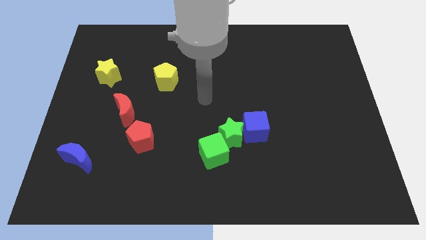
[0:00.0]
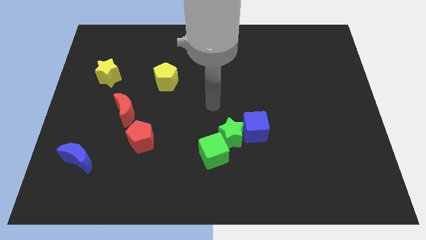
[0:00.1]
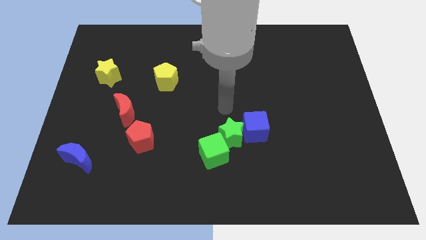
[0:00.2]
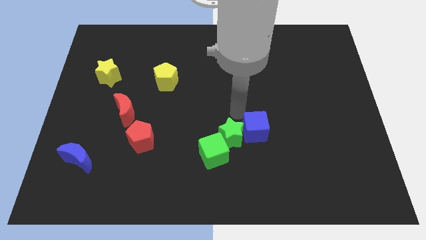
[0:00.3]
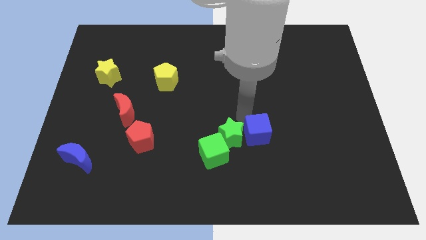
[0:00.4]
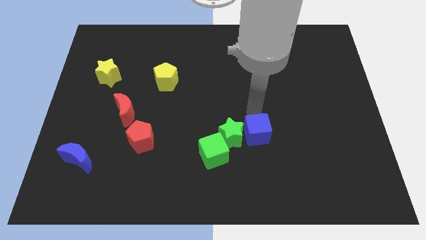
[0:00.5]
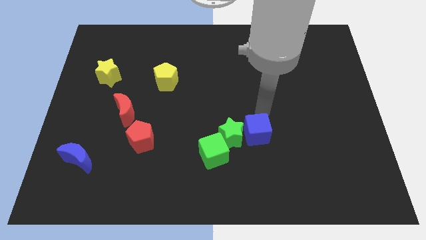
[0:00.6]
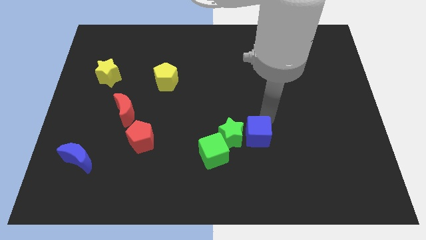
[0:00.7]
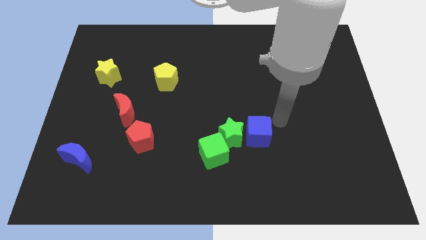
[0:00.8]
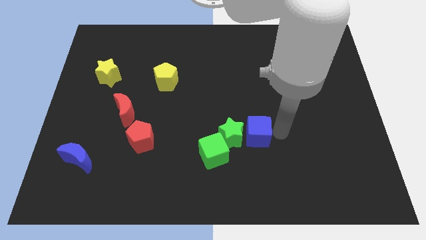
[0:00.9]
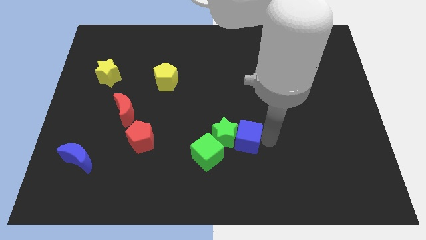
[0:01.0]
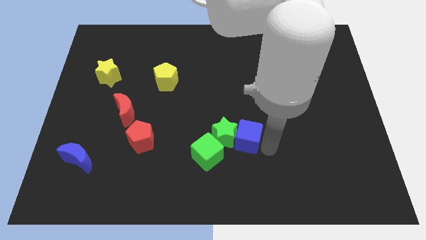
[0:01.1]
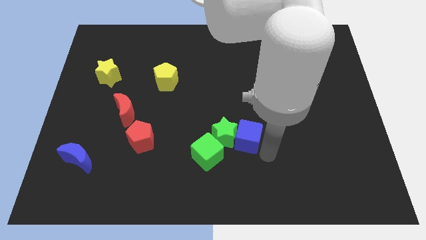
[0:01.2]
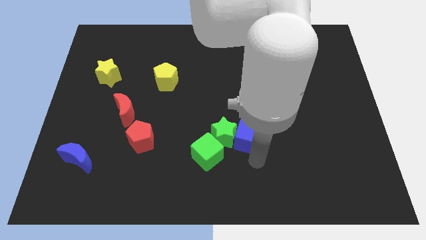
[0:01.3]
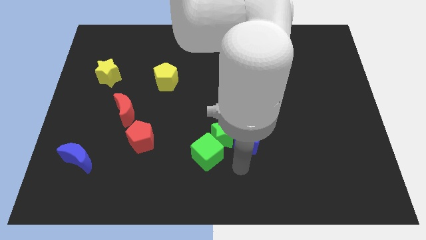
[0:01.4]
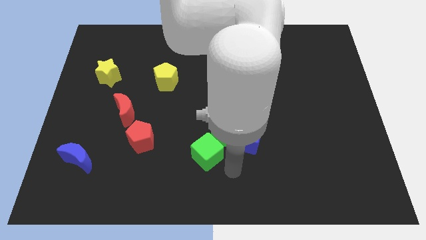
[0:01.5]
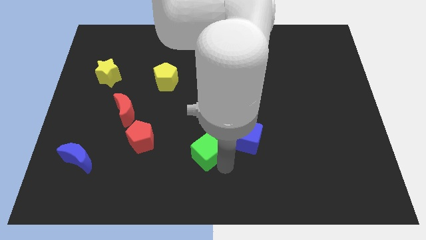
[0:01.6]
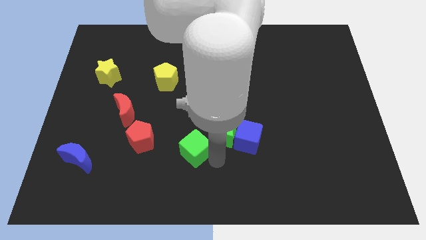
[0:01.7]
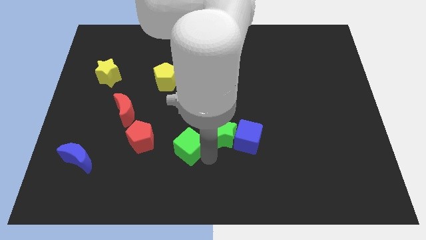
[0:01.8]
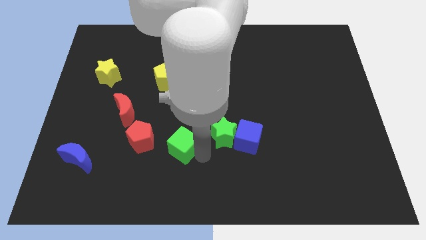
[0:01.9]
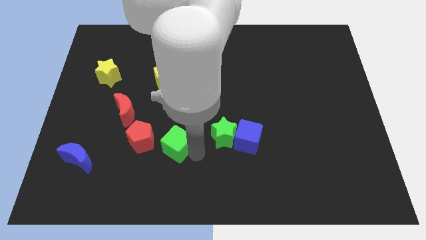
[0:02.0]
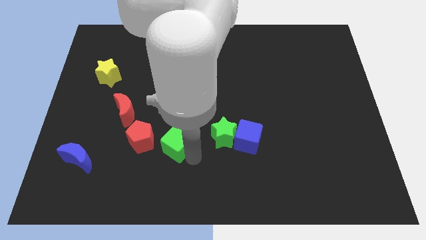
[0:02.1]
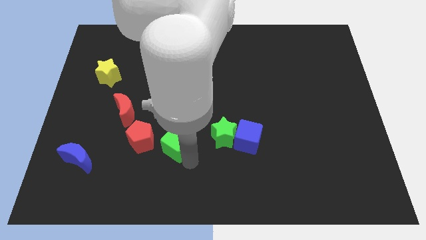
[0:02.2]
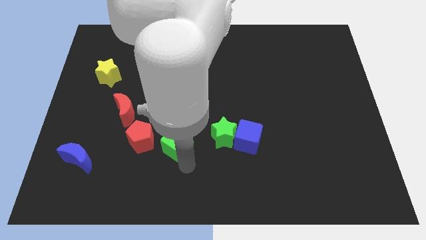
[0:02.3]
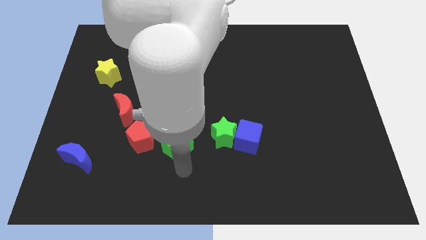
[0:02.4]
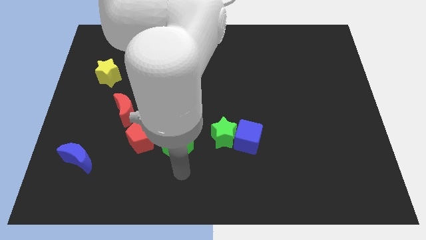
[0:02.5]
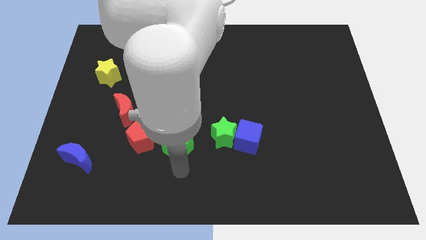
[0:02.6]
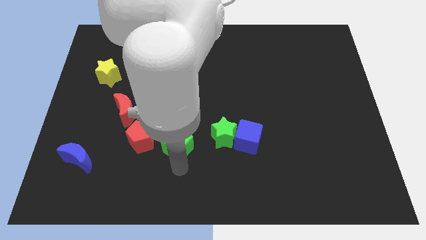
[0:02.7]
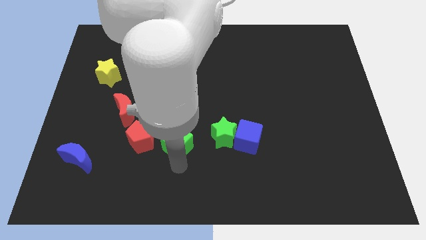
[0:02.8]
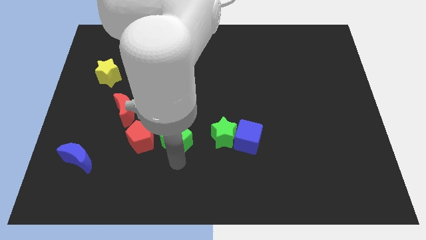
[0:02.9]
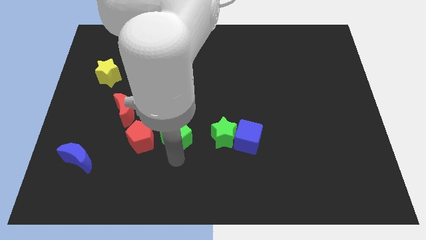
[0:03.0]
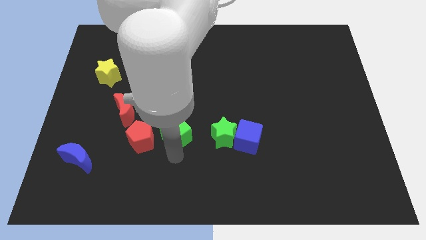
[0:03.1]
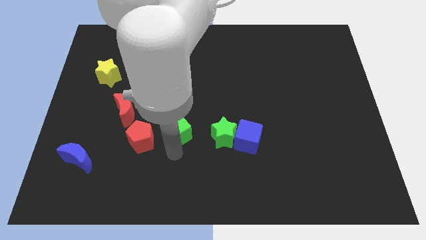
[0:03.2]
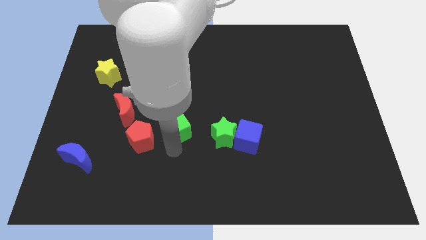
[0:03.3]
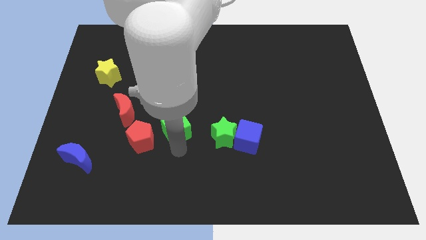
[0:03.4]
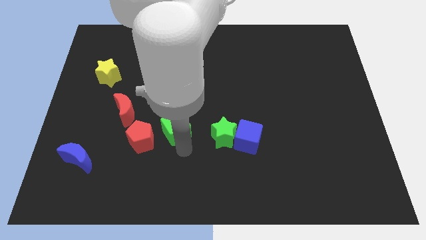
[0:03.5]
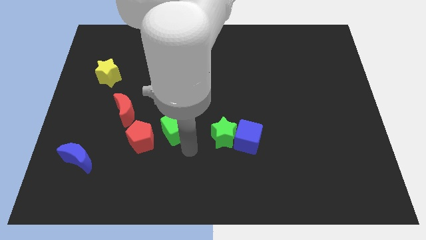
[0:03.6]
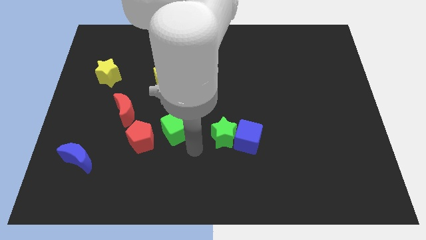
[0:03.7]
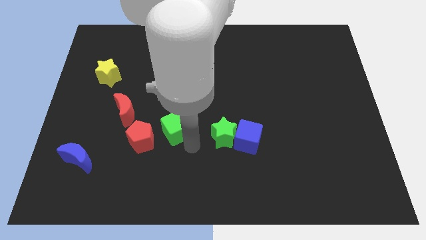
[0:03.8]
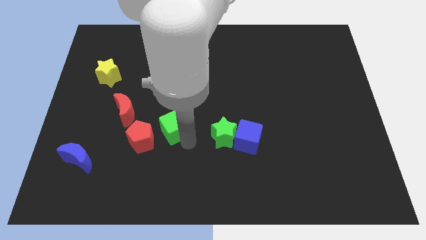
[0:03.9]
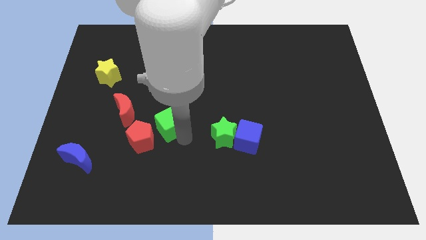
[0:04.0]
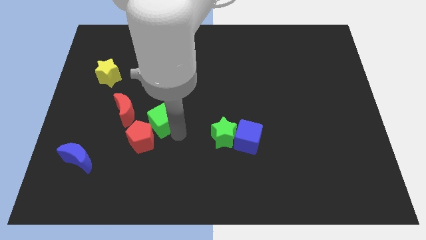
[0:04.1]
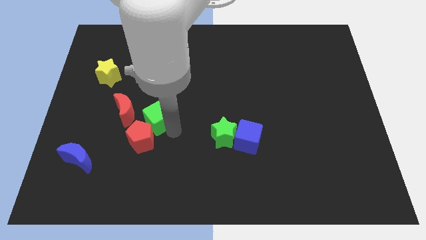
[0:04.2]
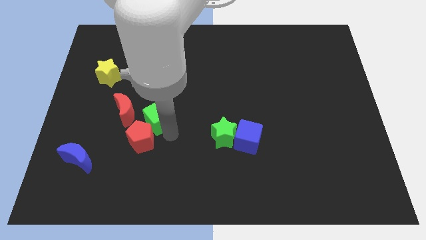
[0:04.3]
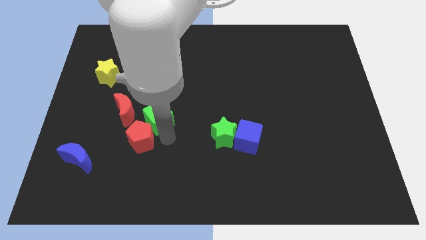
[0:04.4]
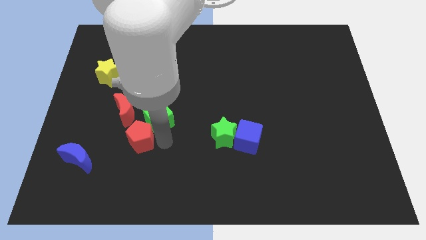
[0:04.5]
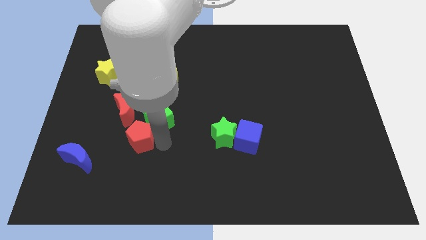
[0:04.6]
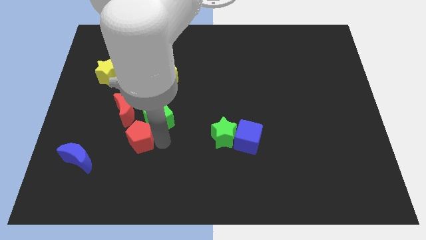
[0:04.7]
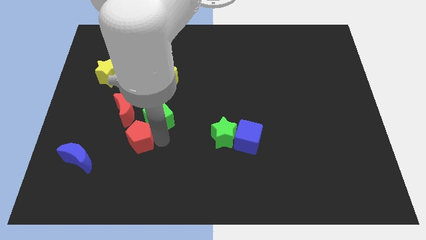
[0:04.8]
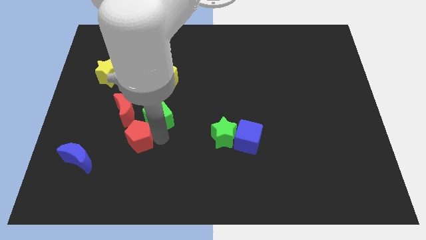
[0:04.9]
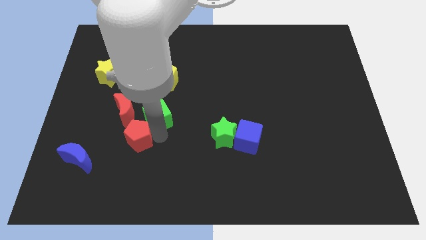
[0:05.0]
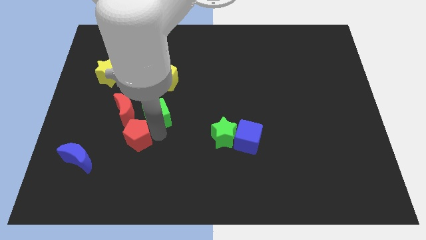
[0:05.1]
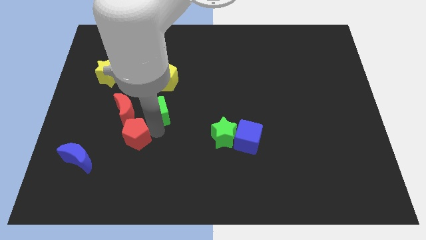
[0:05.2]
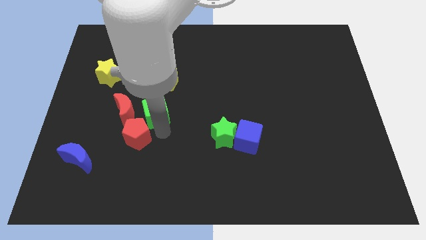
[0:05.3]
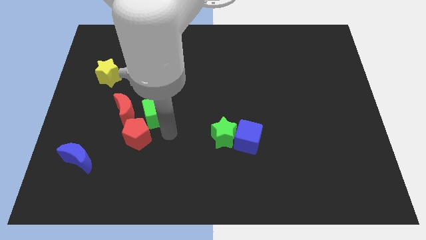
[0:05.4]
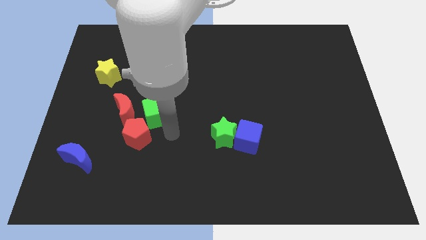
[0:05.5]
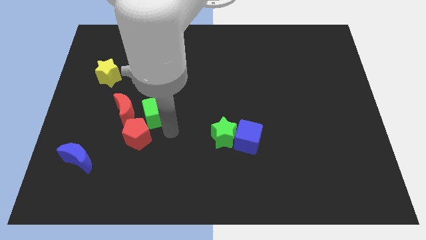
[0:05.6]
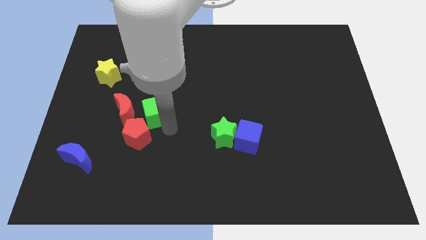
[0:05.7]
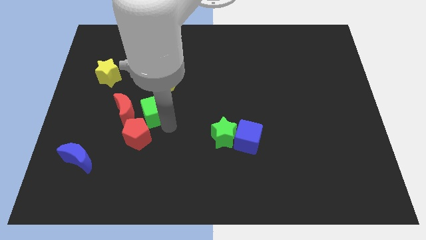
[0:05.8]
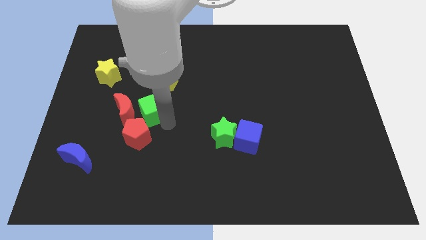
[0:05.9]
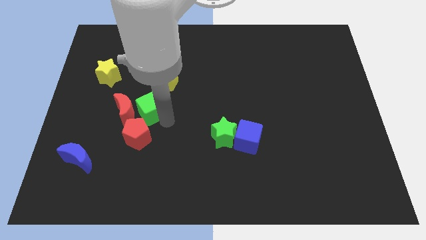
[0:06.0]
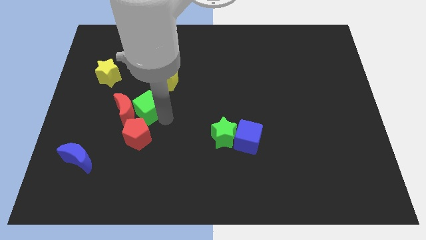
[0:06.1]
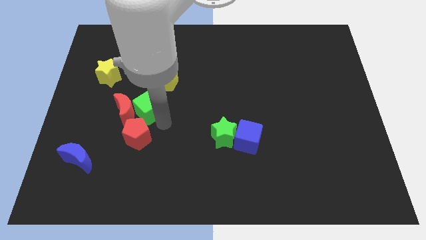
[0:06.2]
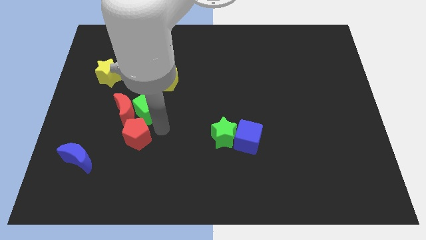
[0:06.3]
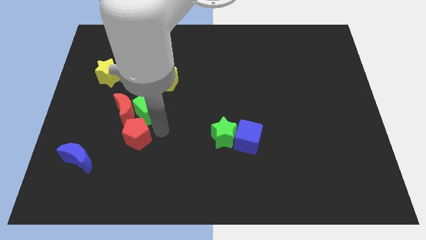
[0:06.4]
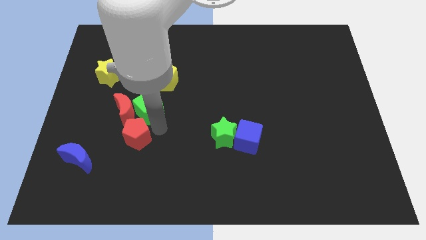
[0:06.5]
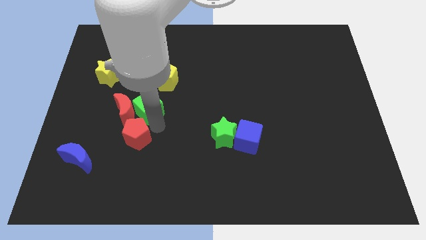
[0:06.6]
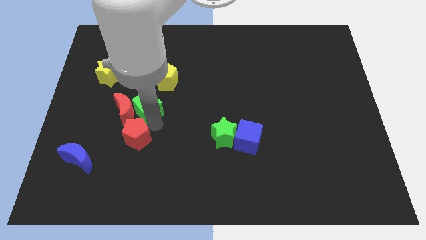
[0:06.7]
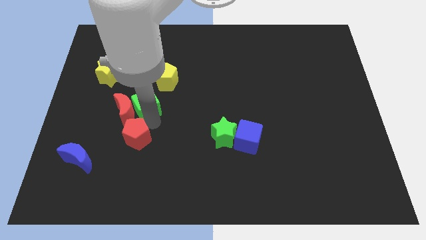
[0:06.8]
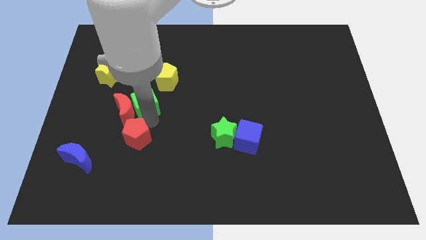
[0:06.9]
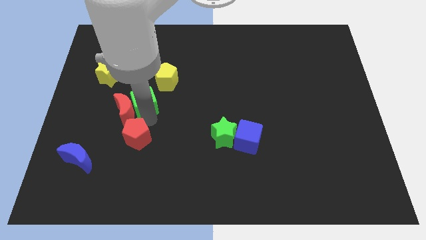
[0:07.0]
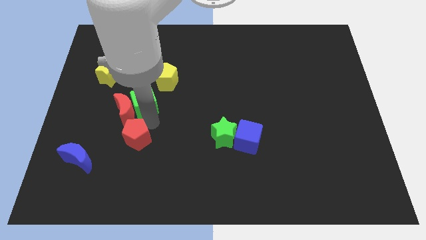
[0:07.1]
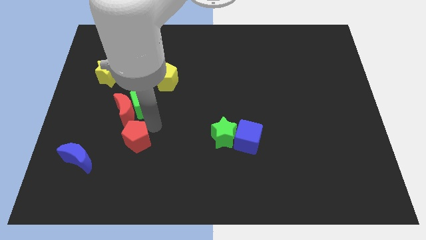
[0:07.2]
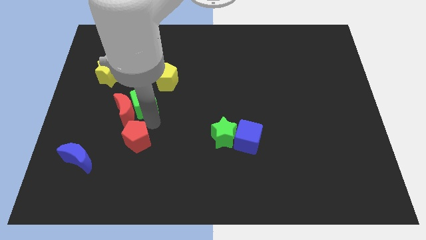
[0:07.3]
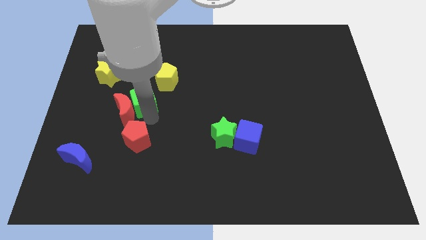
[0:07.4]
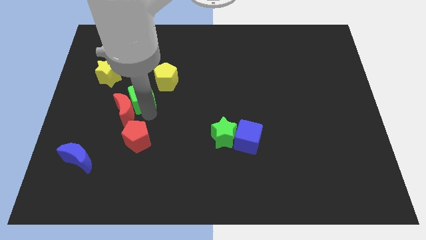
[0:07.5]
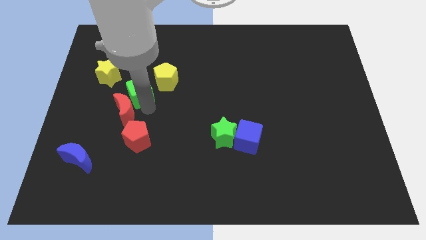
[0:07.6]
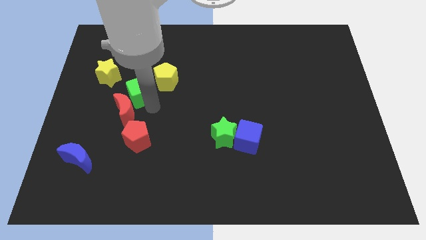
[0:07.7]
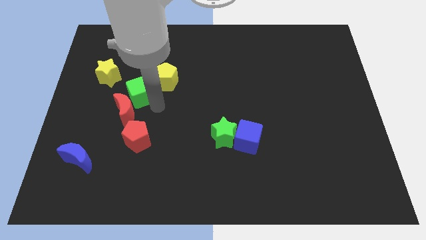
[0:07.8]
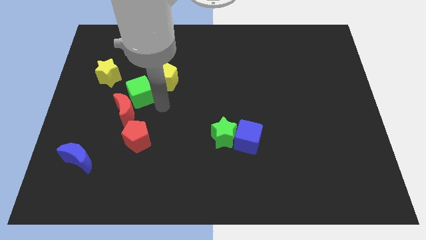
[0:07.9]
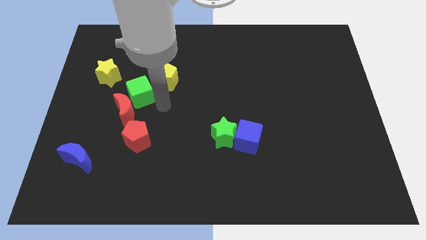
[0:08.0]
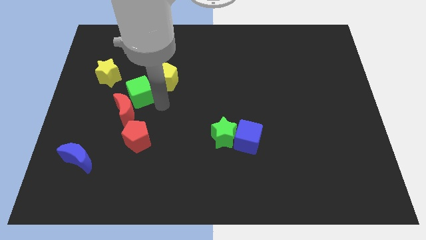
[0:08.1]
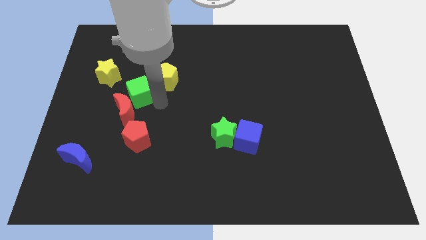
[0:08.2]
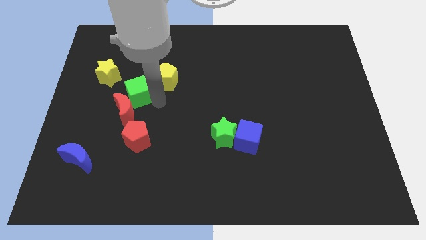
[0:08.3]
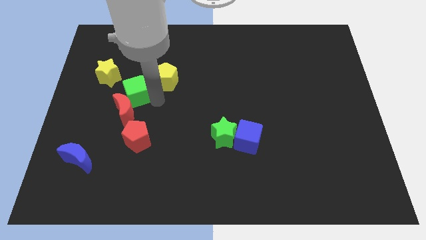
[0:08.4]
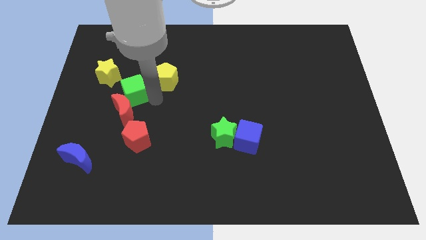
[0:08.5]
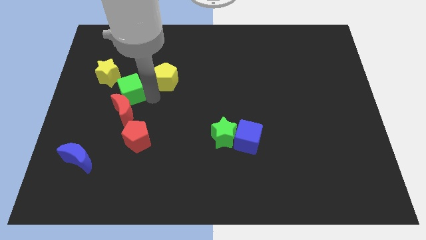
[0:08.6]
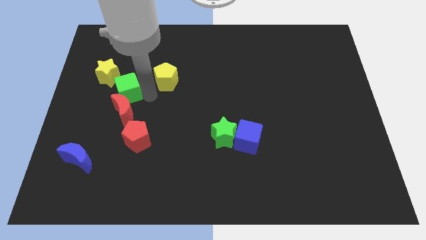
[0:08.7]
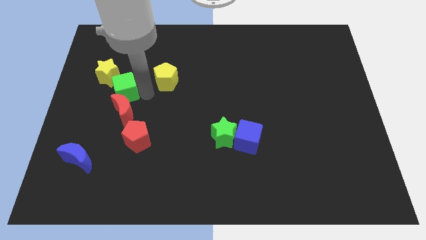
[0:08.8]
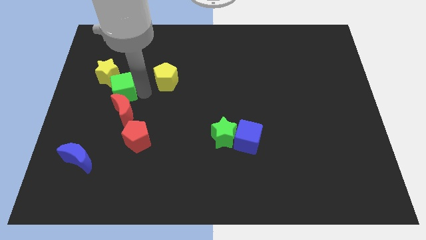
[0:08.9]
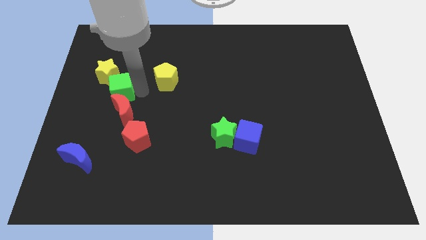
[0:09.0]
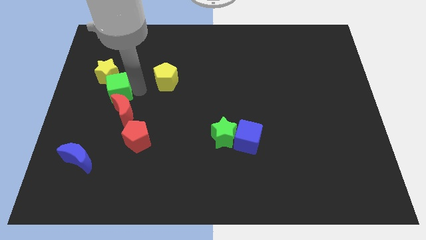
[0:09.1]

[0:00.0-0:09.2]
move the green cube towards the yellow star
